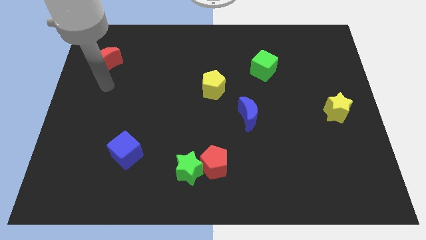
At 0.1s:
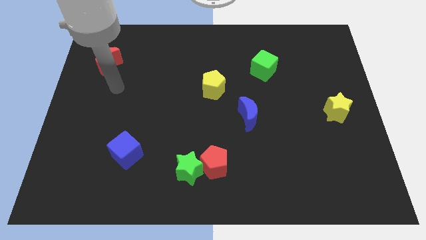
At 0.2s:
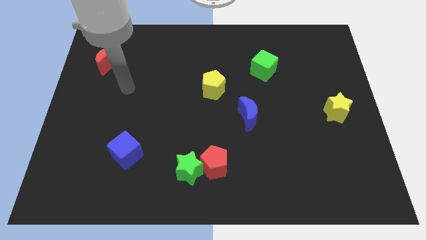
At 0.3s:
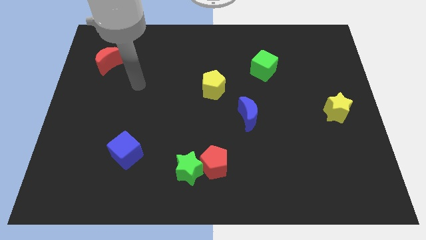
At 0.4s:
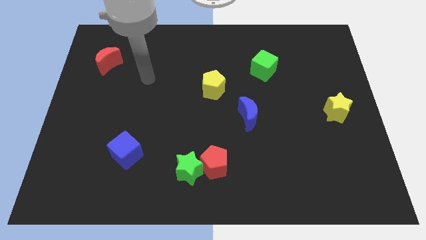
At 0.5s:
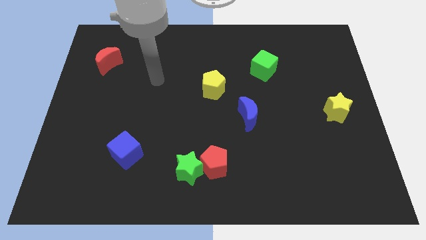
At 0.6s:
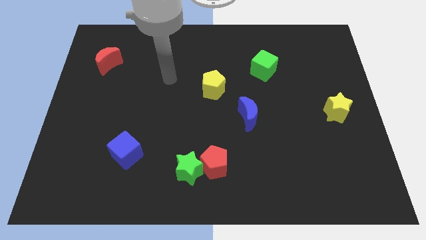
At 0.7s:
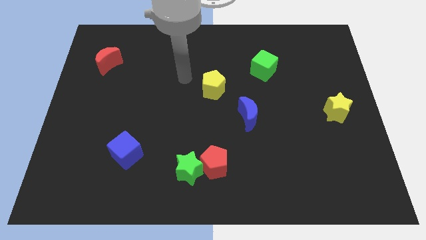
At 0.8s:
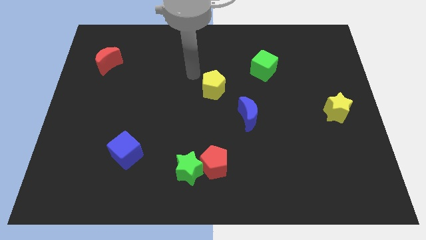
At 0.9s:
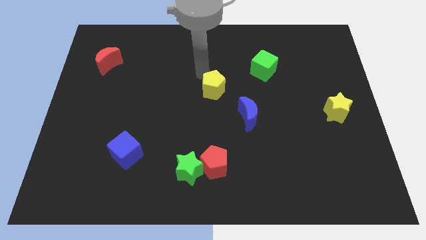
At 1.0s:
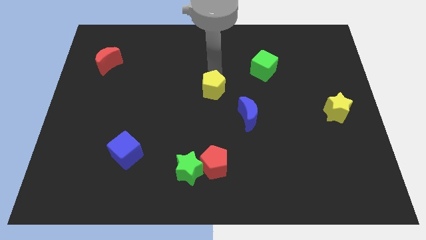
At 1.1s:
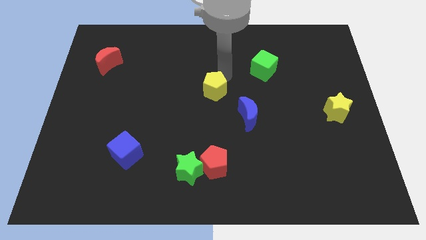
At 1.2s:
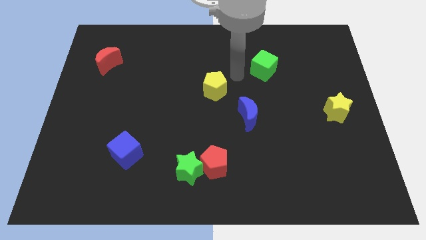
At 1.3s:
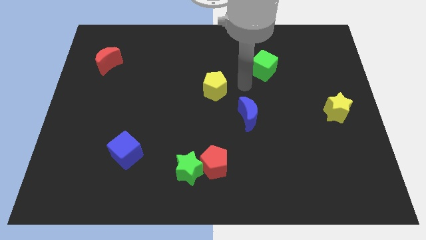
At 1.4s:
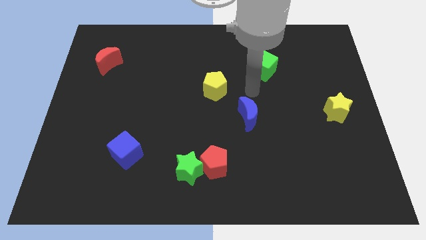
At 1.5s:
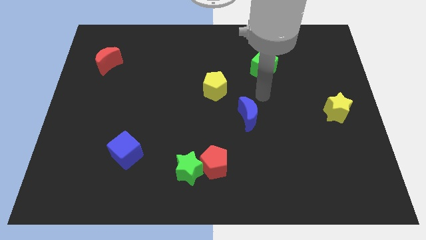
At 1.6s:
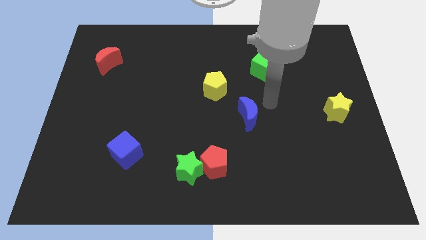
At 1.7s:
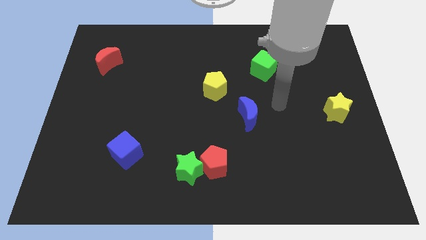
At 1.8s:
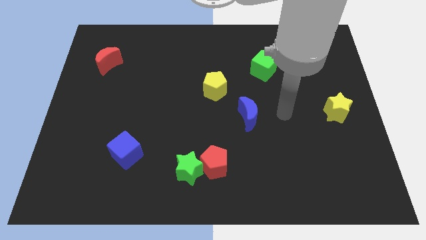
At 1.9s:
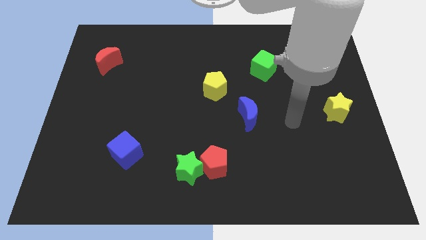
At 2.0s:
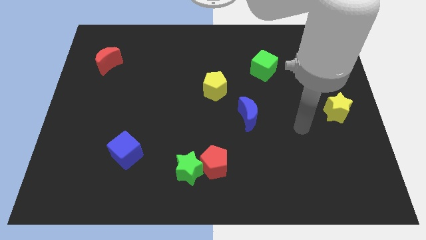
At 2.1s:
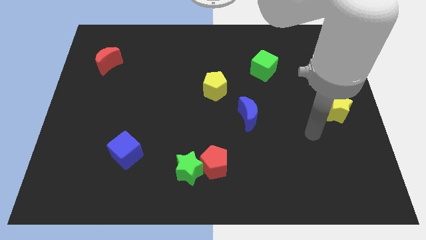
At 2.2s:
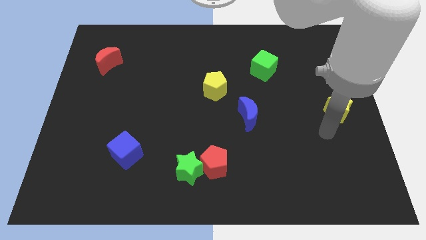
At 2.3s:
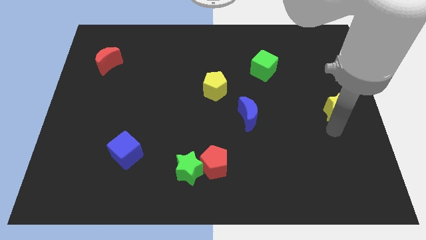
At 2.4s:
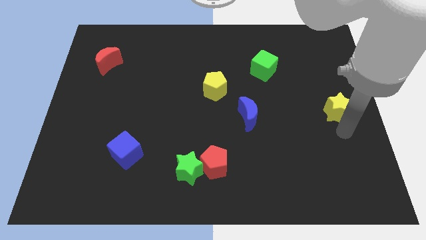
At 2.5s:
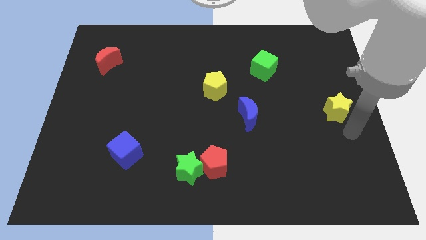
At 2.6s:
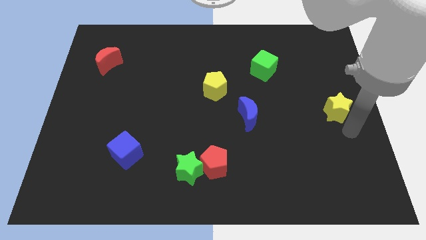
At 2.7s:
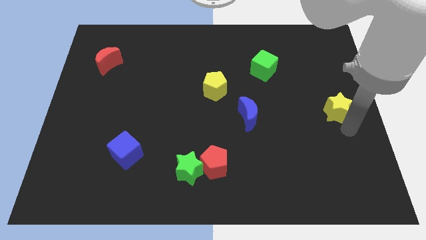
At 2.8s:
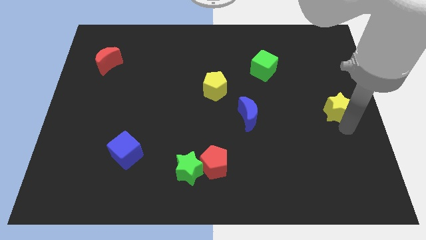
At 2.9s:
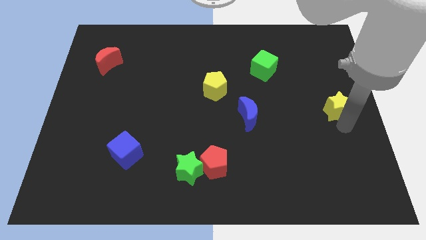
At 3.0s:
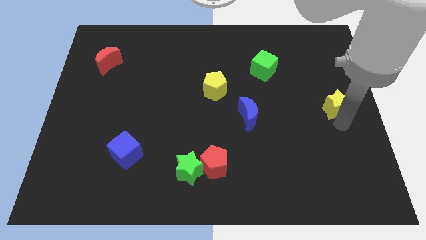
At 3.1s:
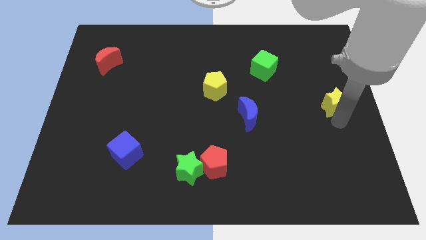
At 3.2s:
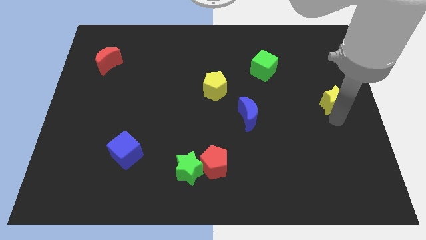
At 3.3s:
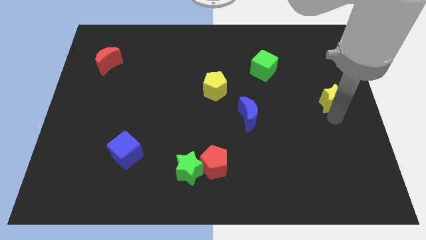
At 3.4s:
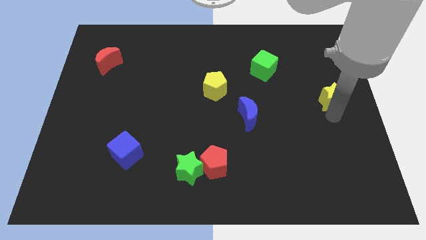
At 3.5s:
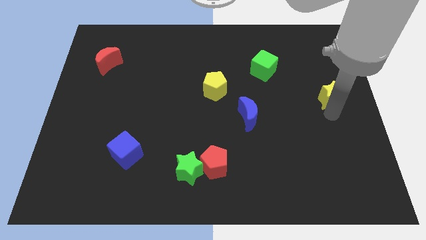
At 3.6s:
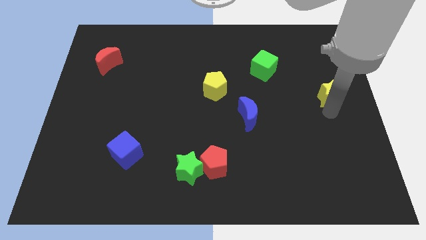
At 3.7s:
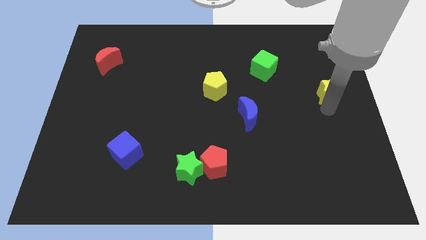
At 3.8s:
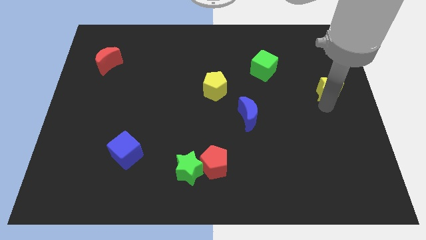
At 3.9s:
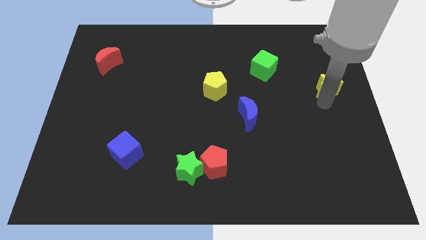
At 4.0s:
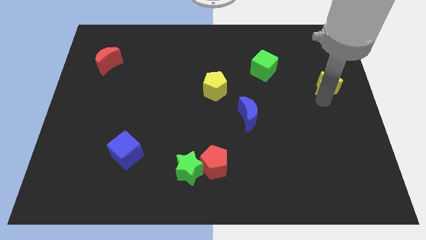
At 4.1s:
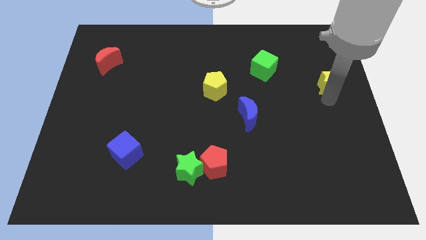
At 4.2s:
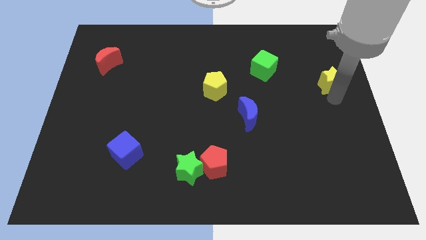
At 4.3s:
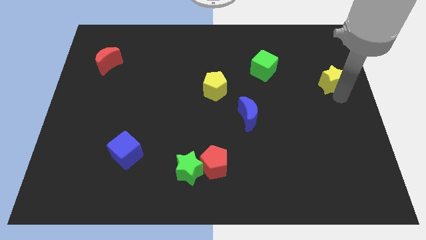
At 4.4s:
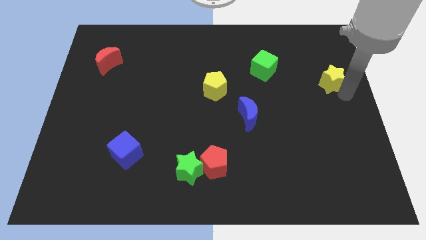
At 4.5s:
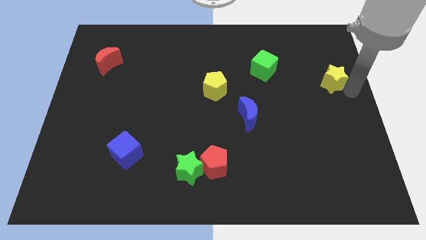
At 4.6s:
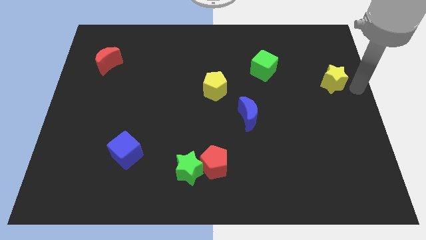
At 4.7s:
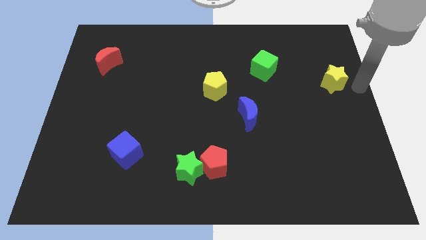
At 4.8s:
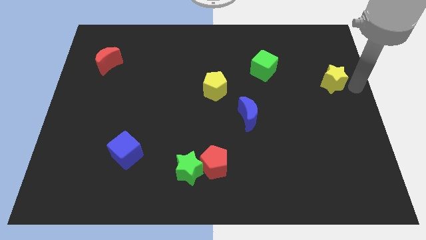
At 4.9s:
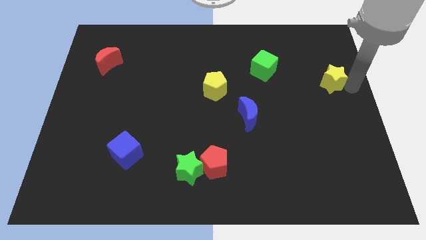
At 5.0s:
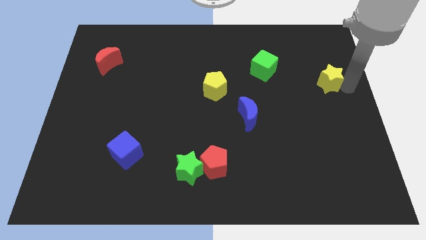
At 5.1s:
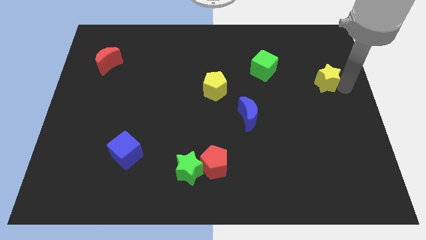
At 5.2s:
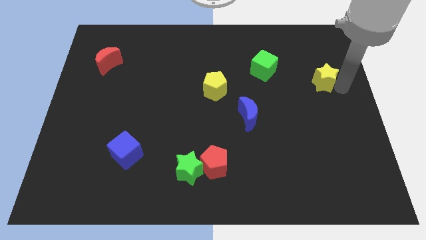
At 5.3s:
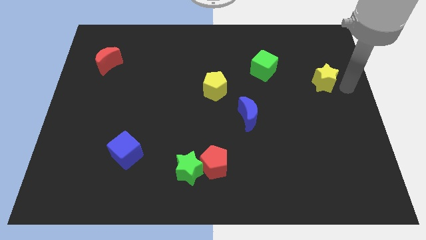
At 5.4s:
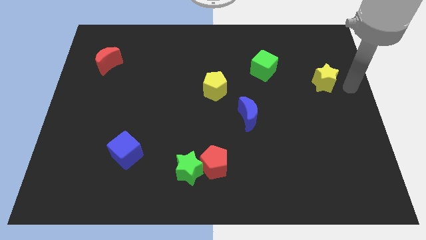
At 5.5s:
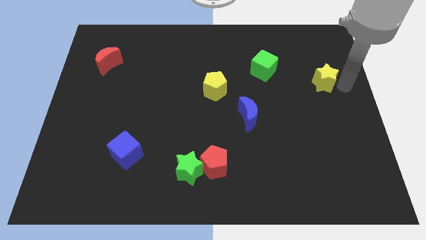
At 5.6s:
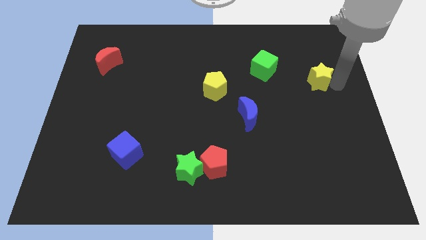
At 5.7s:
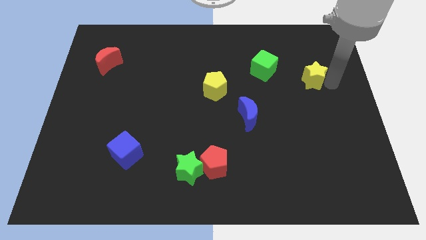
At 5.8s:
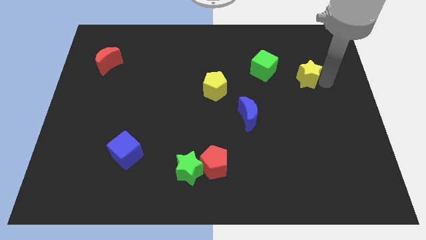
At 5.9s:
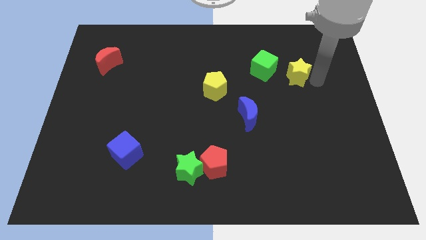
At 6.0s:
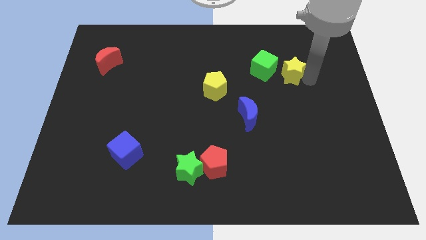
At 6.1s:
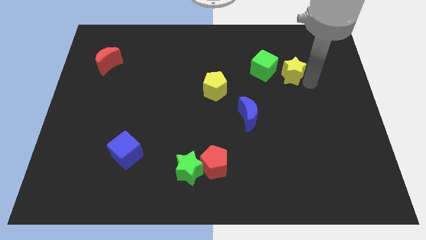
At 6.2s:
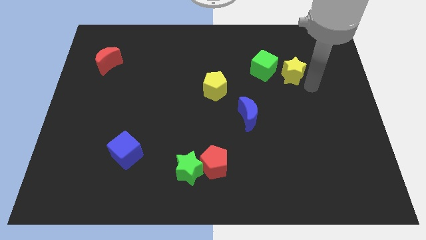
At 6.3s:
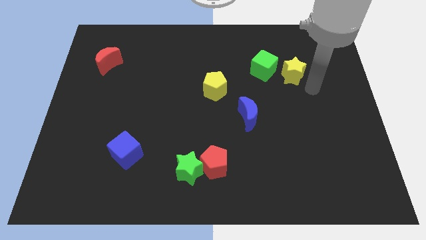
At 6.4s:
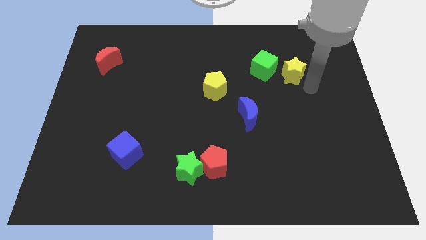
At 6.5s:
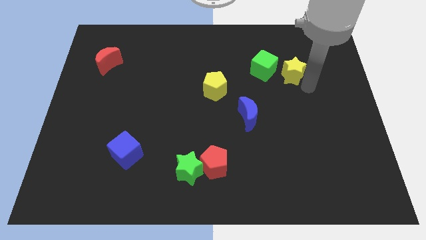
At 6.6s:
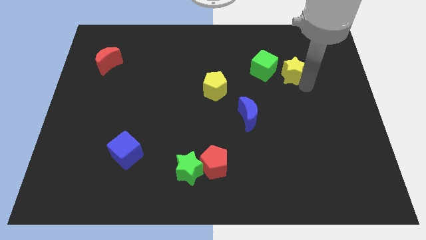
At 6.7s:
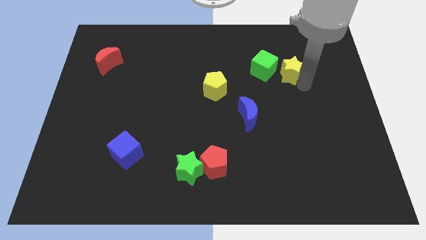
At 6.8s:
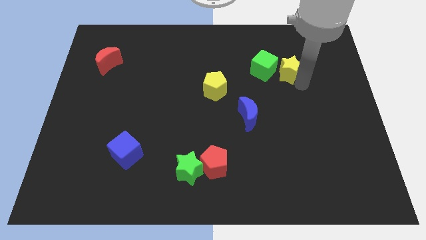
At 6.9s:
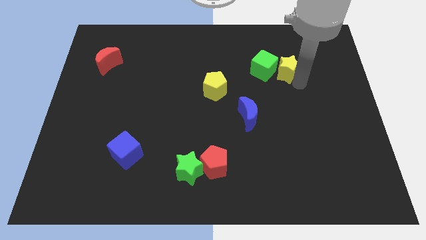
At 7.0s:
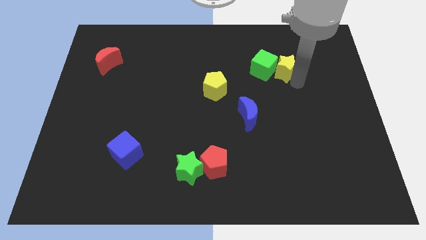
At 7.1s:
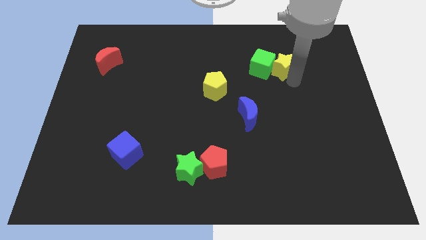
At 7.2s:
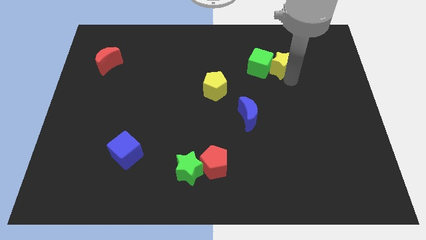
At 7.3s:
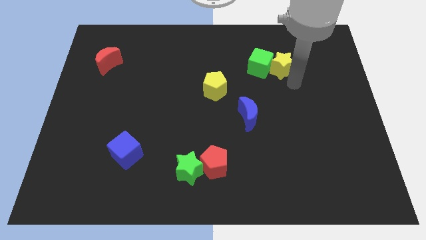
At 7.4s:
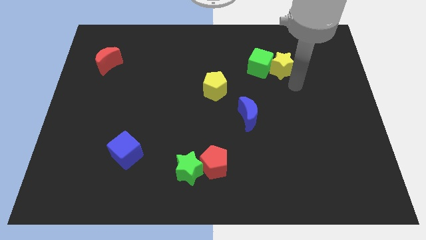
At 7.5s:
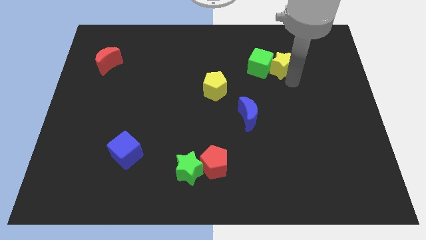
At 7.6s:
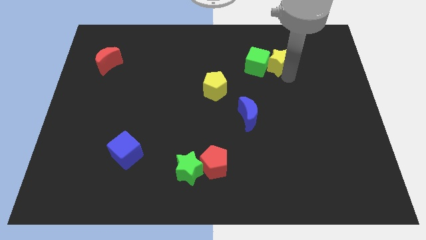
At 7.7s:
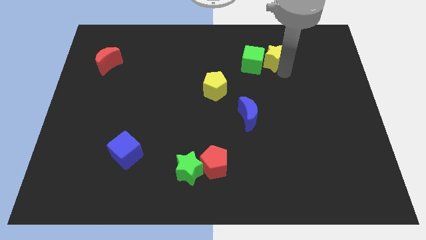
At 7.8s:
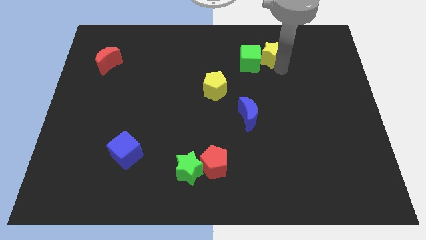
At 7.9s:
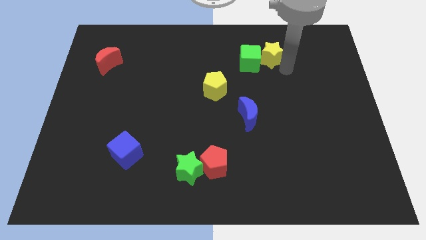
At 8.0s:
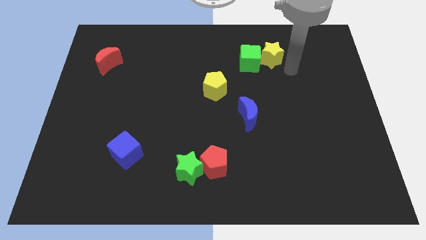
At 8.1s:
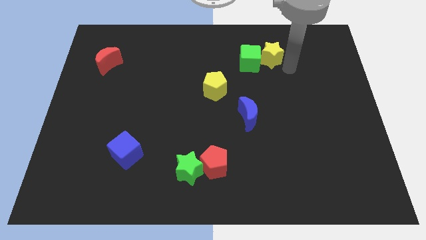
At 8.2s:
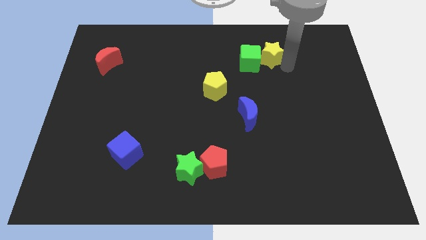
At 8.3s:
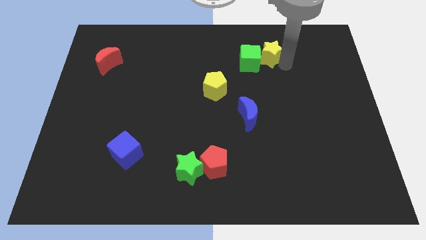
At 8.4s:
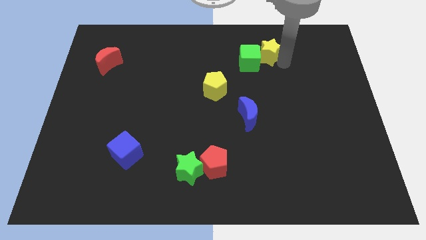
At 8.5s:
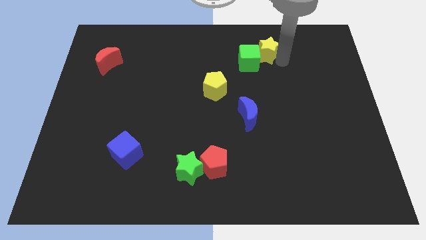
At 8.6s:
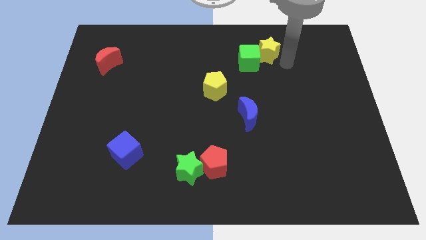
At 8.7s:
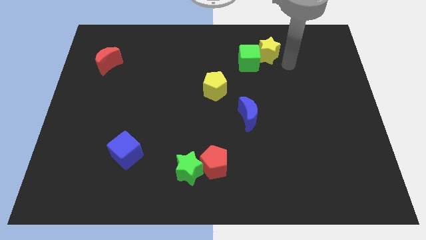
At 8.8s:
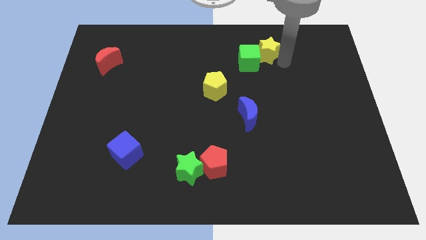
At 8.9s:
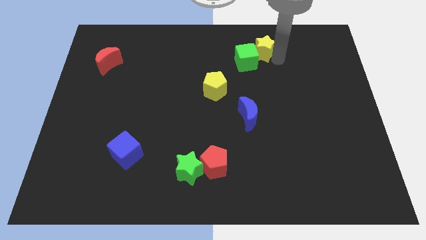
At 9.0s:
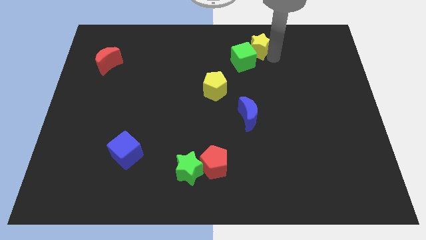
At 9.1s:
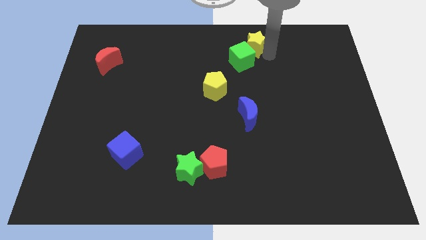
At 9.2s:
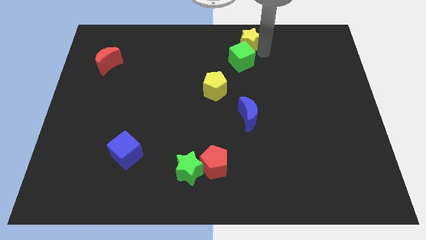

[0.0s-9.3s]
put the yellow star to the towards your base
